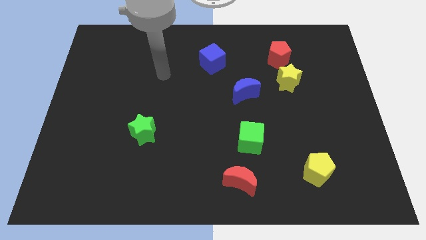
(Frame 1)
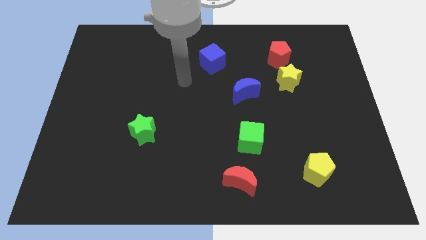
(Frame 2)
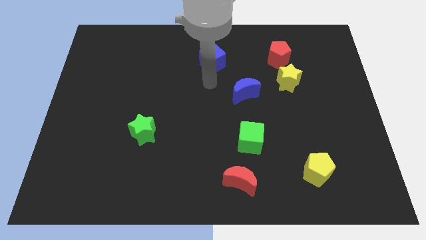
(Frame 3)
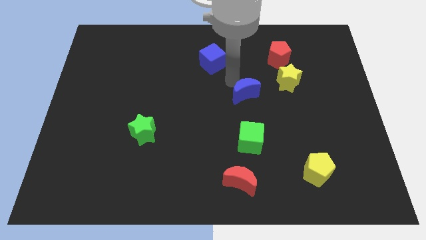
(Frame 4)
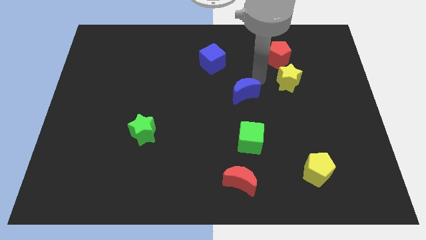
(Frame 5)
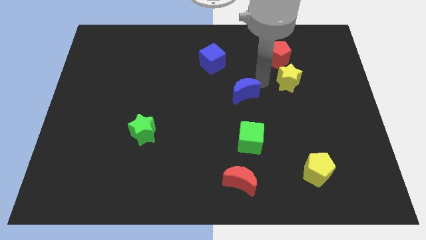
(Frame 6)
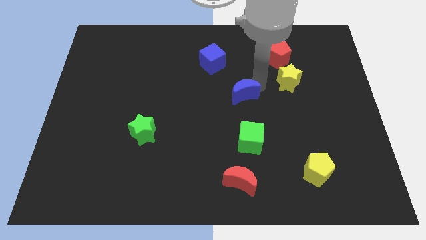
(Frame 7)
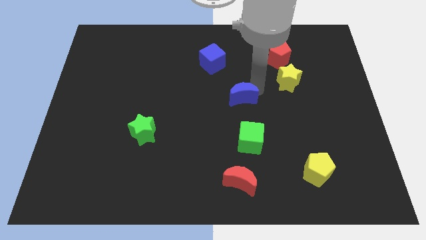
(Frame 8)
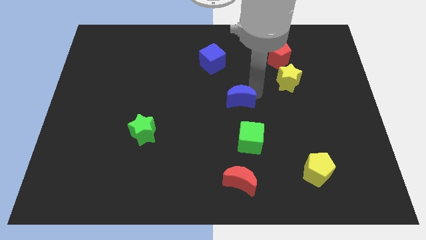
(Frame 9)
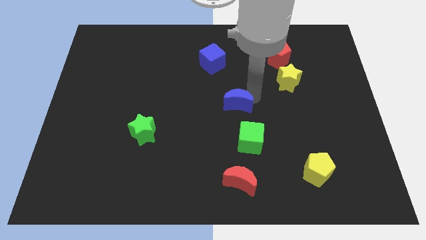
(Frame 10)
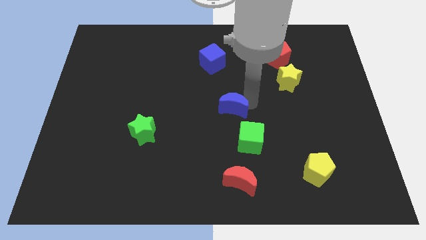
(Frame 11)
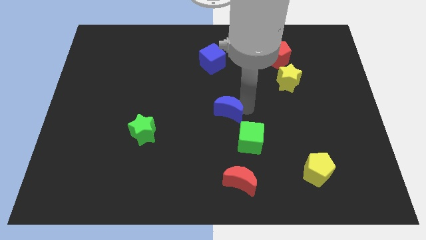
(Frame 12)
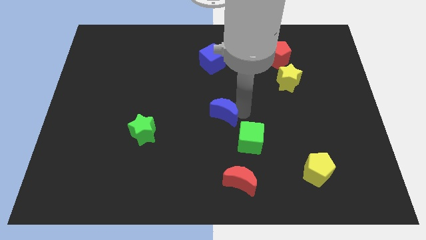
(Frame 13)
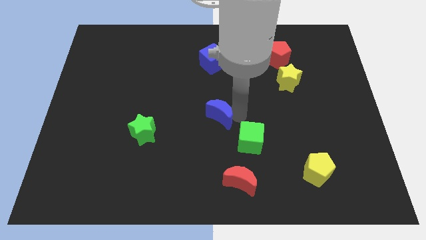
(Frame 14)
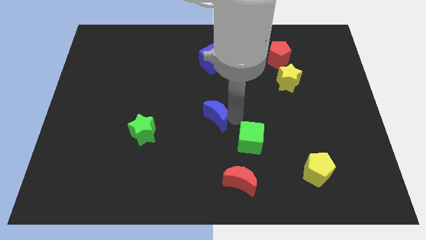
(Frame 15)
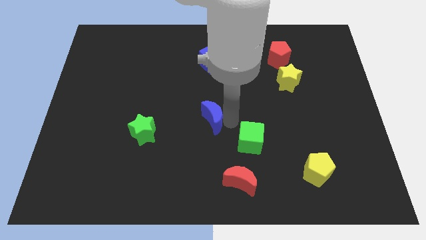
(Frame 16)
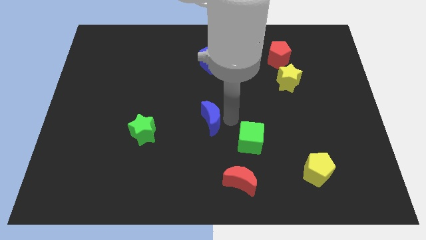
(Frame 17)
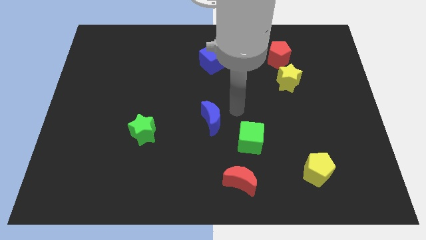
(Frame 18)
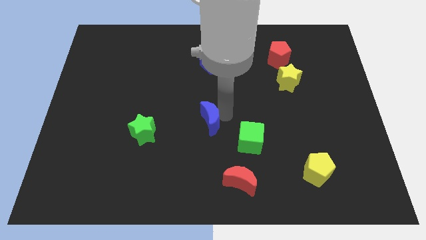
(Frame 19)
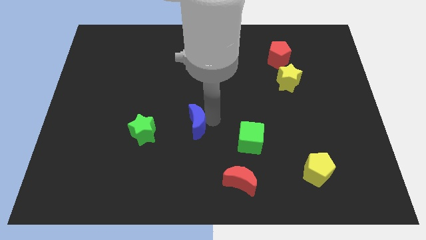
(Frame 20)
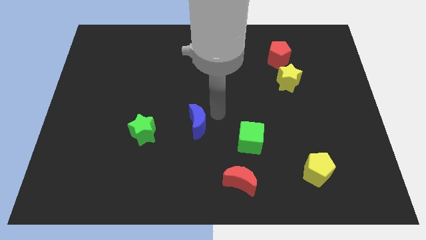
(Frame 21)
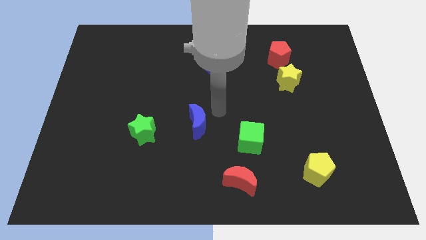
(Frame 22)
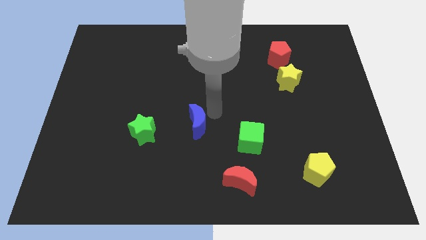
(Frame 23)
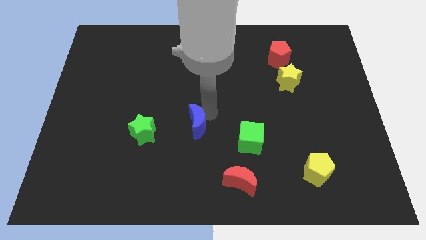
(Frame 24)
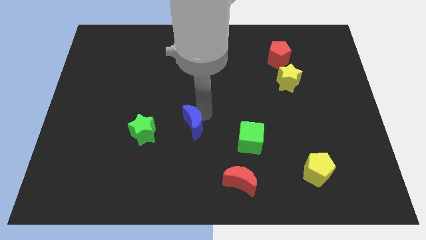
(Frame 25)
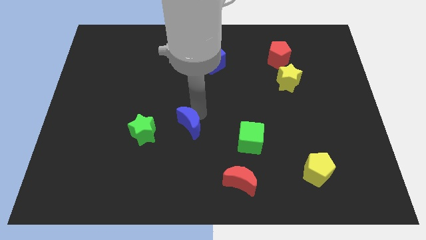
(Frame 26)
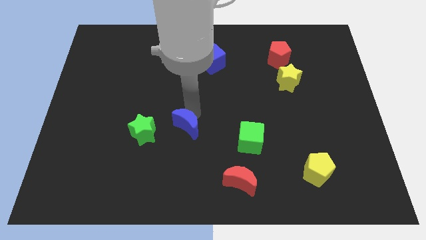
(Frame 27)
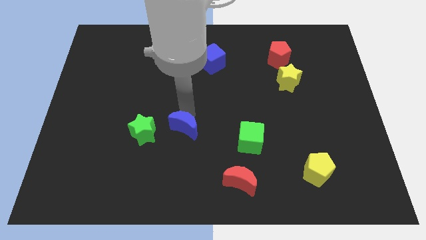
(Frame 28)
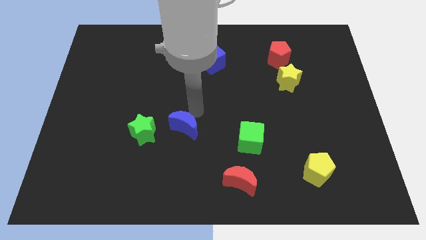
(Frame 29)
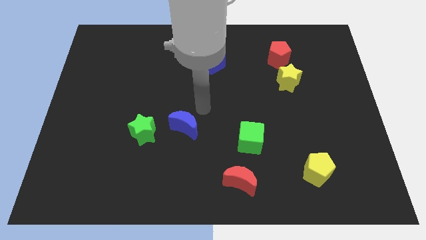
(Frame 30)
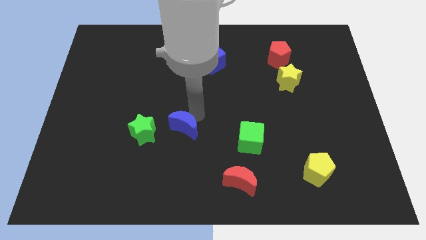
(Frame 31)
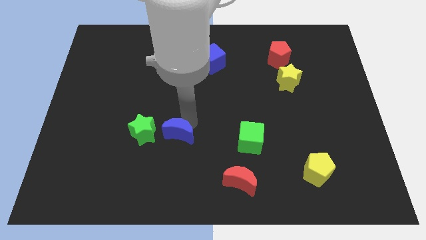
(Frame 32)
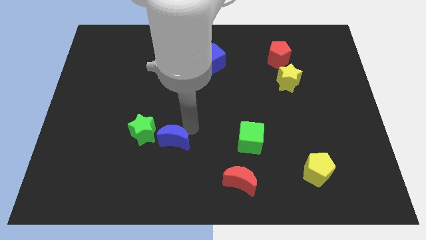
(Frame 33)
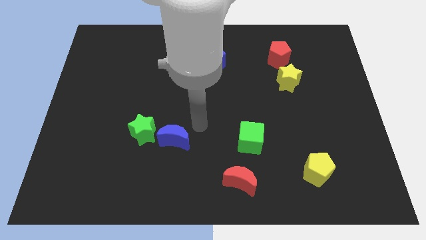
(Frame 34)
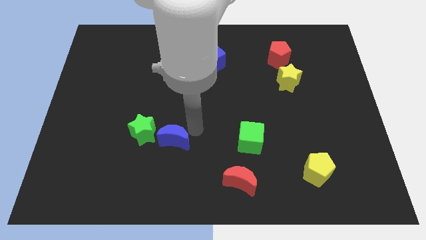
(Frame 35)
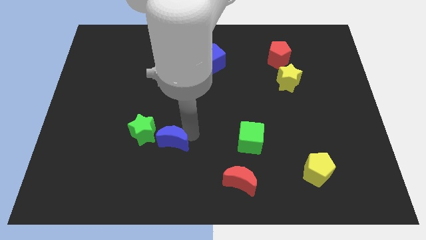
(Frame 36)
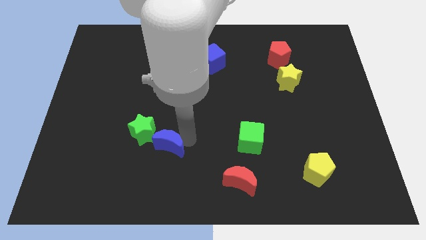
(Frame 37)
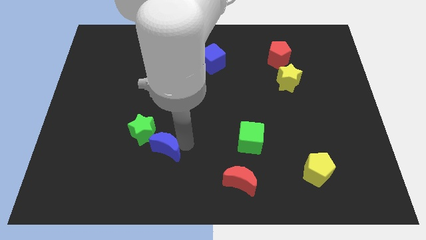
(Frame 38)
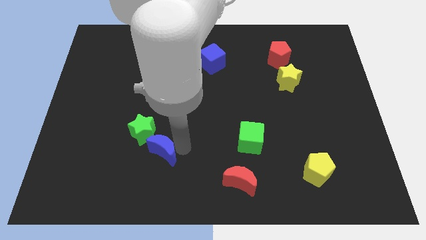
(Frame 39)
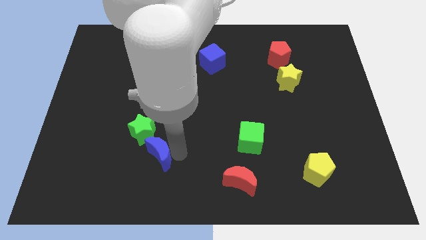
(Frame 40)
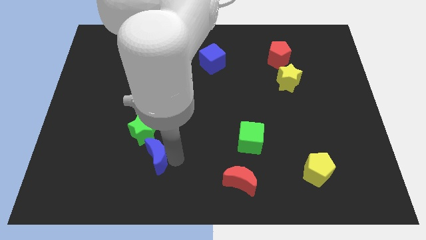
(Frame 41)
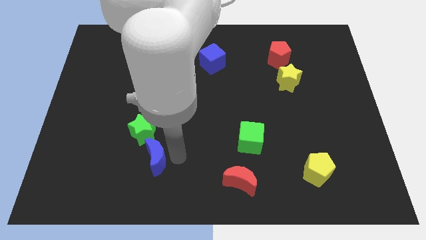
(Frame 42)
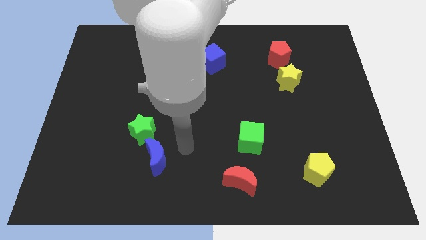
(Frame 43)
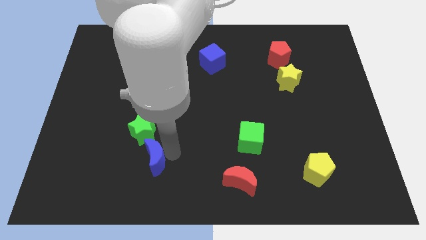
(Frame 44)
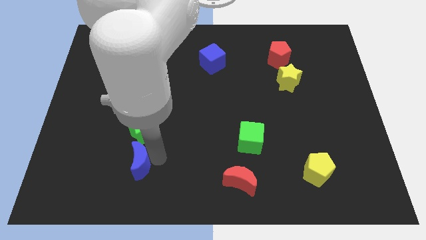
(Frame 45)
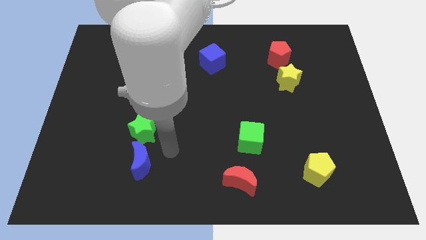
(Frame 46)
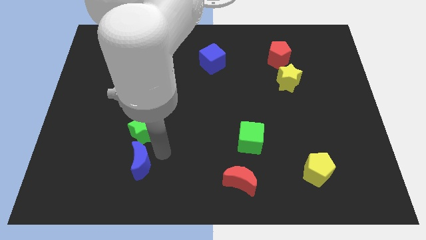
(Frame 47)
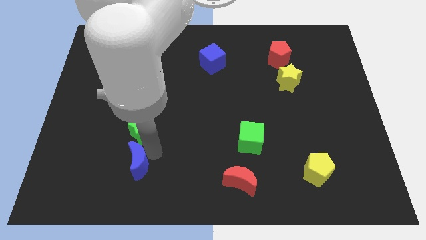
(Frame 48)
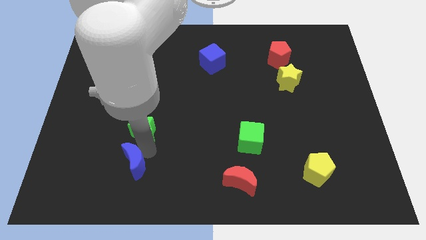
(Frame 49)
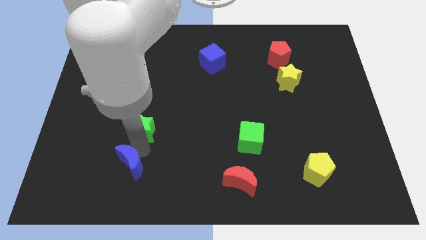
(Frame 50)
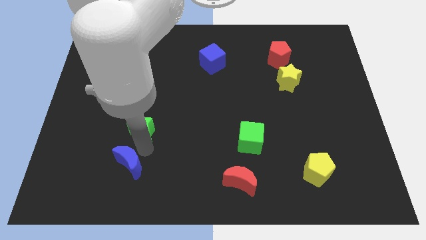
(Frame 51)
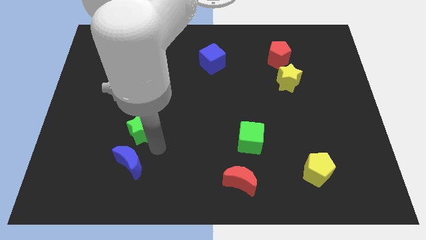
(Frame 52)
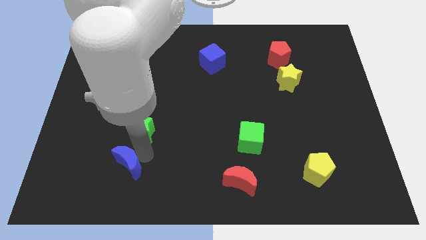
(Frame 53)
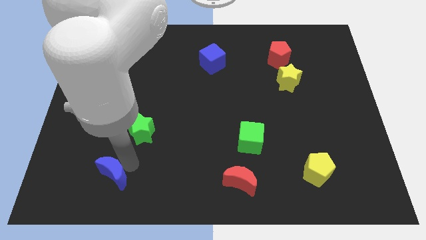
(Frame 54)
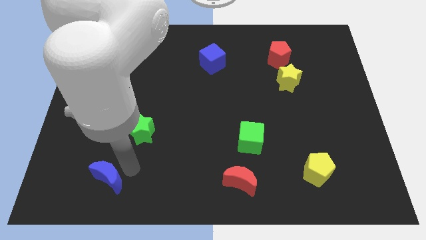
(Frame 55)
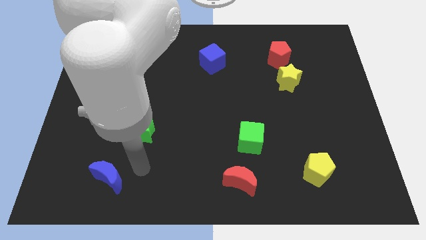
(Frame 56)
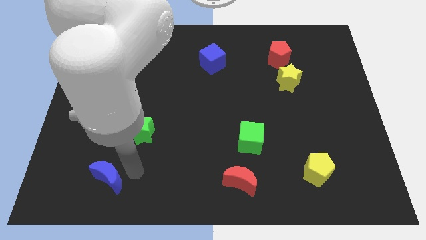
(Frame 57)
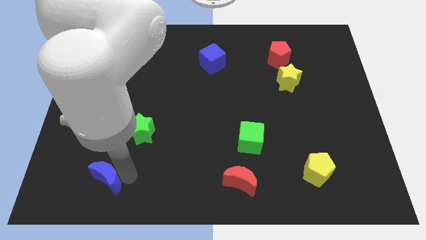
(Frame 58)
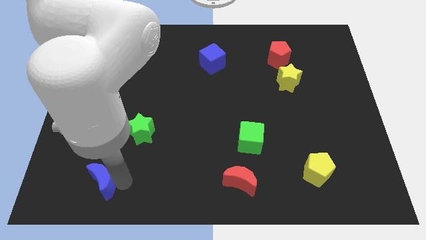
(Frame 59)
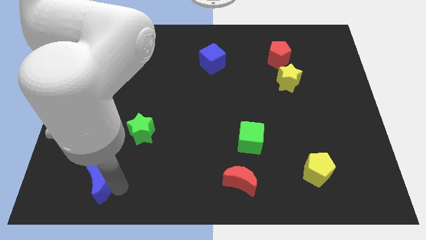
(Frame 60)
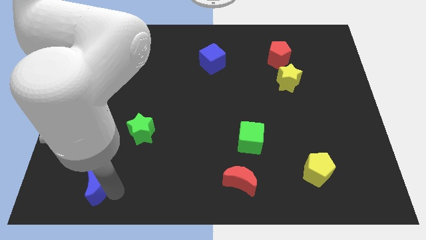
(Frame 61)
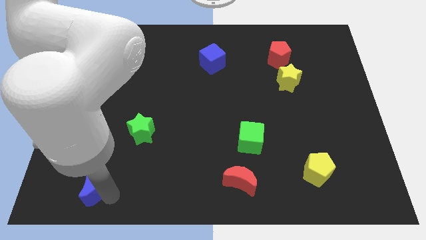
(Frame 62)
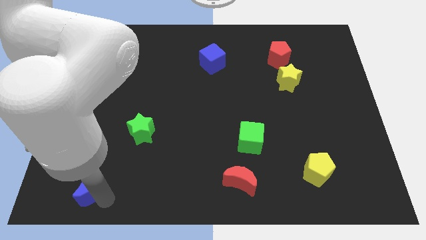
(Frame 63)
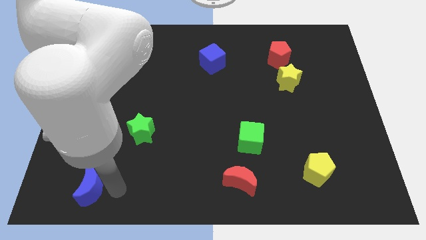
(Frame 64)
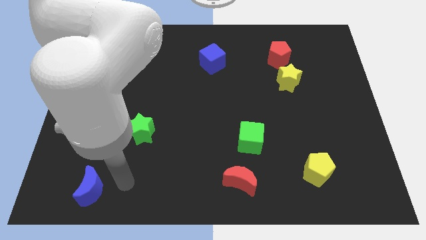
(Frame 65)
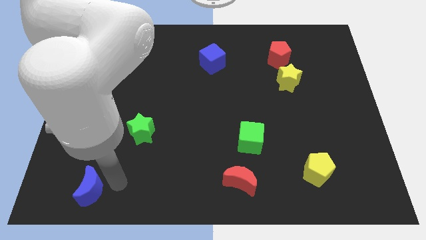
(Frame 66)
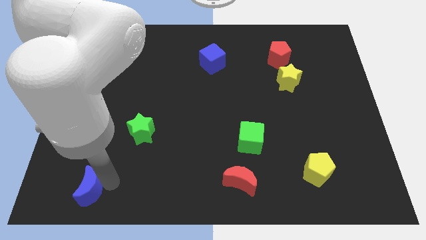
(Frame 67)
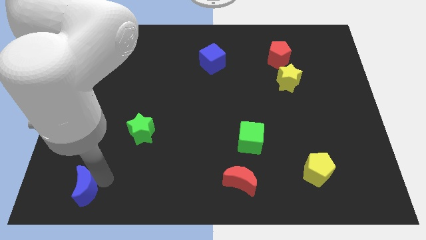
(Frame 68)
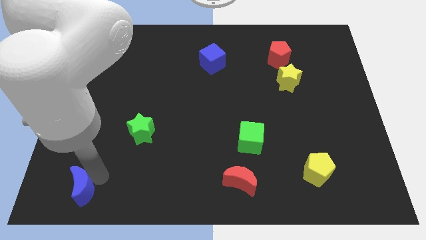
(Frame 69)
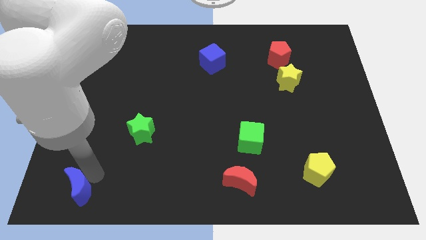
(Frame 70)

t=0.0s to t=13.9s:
move the blue moon to the bottom left of the board
